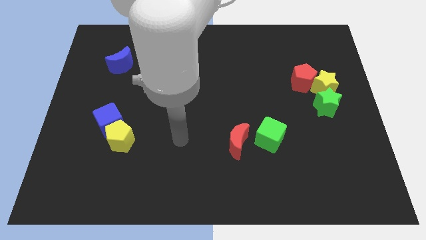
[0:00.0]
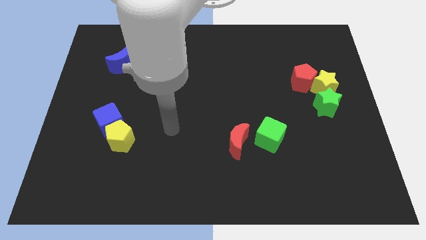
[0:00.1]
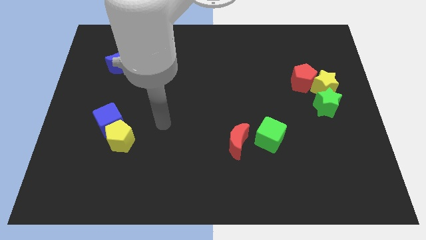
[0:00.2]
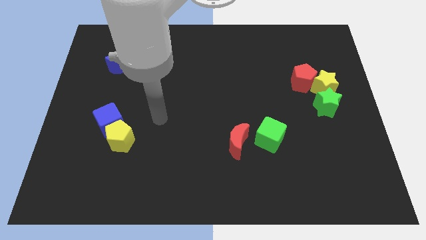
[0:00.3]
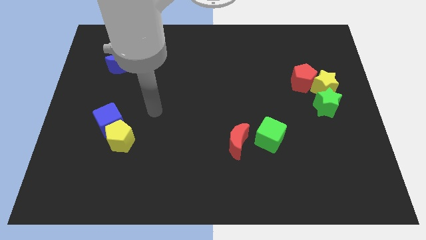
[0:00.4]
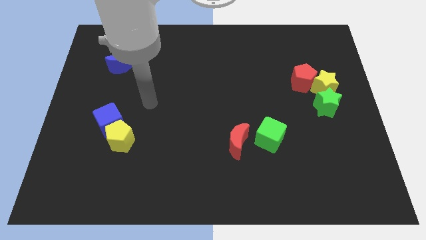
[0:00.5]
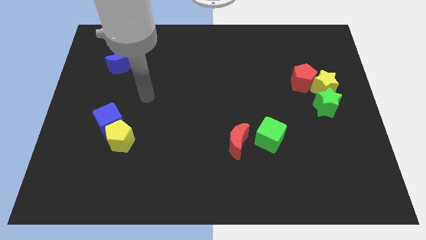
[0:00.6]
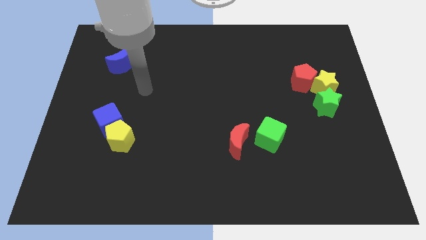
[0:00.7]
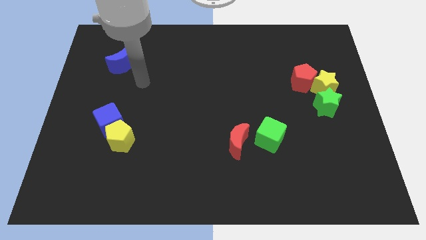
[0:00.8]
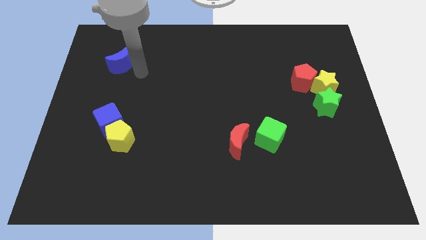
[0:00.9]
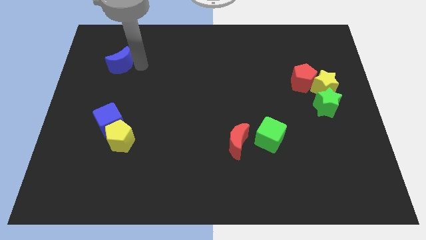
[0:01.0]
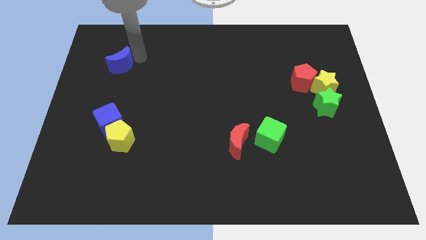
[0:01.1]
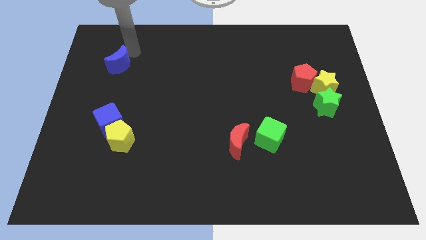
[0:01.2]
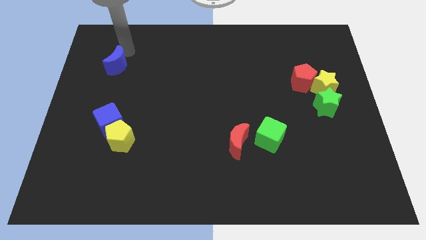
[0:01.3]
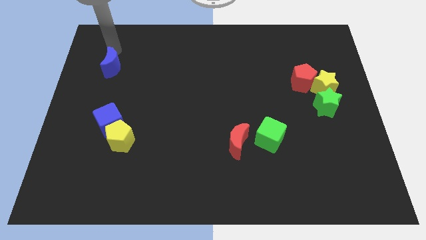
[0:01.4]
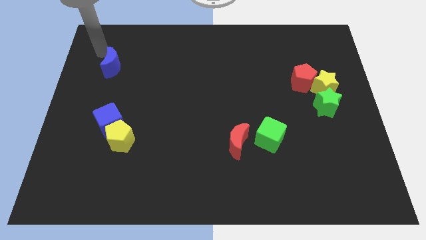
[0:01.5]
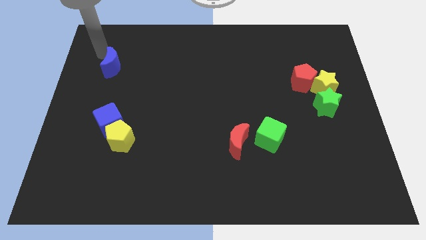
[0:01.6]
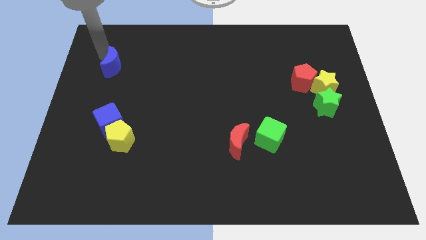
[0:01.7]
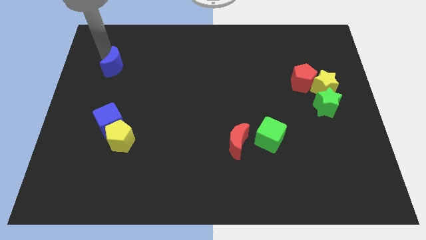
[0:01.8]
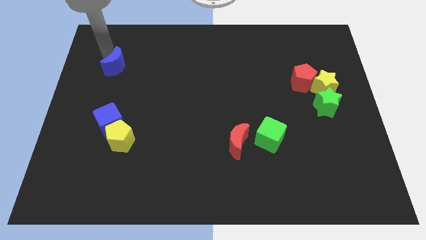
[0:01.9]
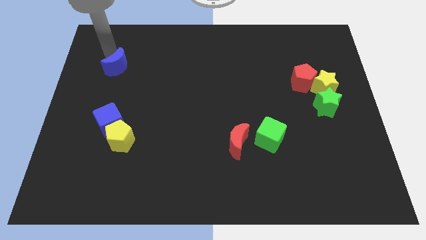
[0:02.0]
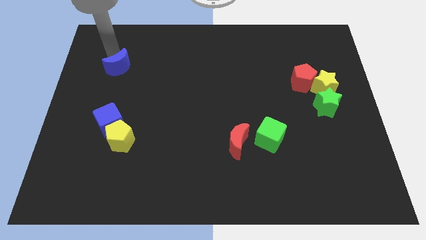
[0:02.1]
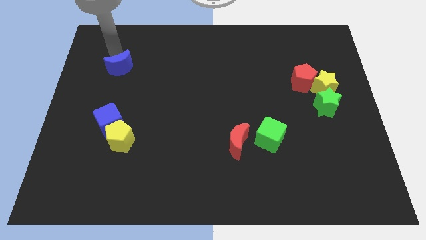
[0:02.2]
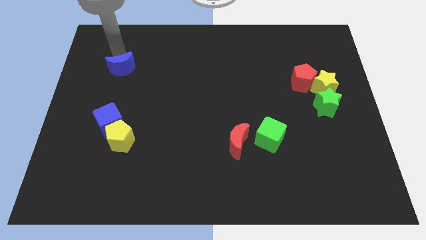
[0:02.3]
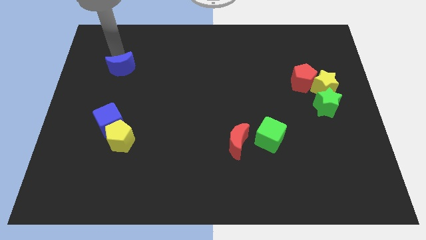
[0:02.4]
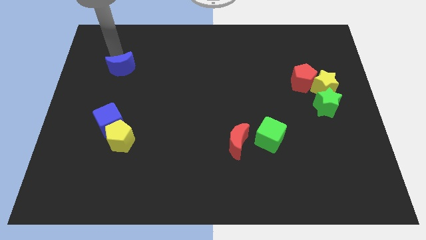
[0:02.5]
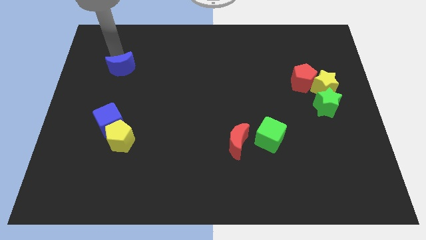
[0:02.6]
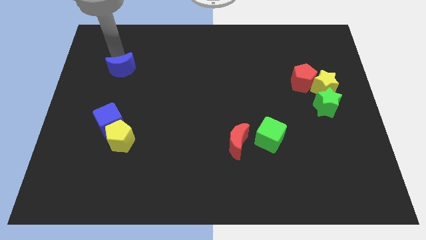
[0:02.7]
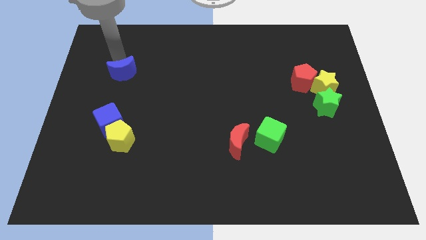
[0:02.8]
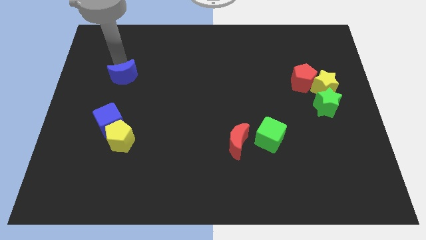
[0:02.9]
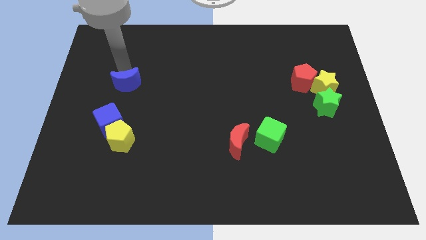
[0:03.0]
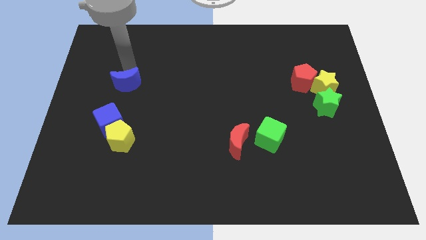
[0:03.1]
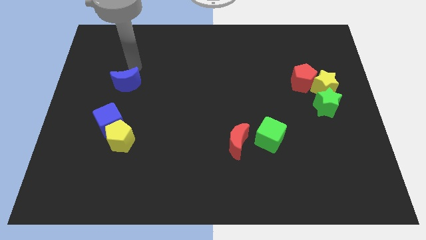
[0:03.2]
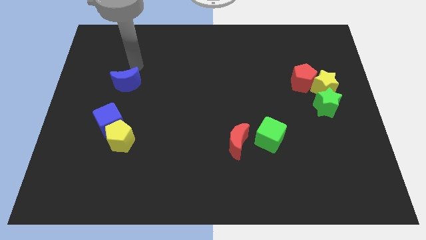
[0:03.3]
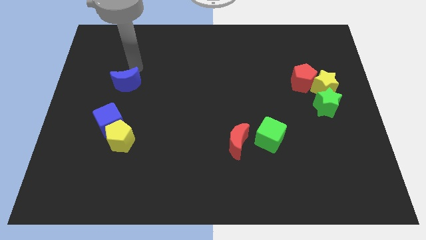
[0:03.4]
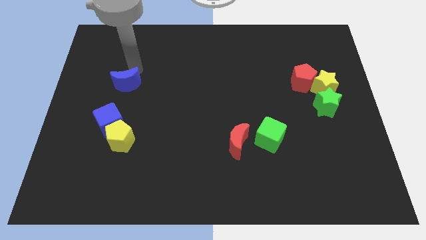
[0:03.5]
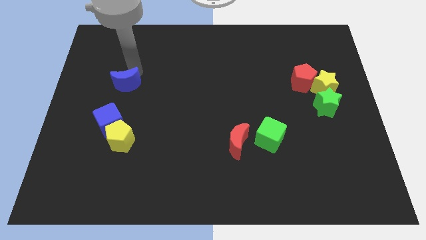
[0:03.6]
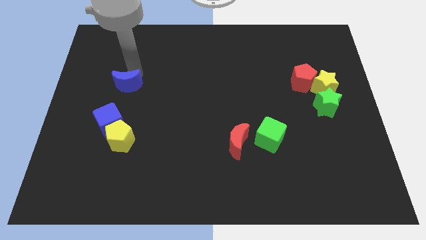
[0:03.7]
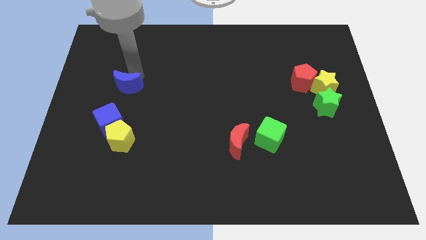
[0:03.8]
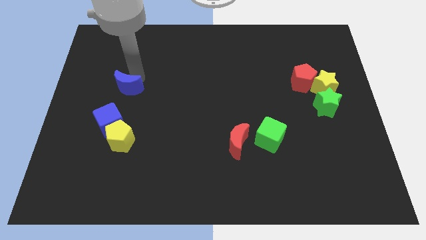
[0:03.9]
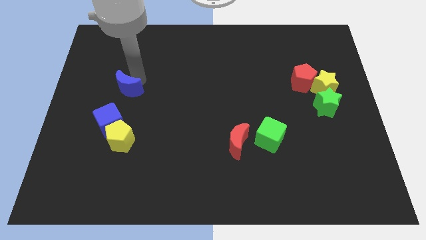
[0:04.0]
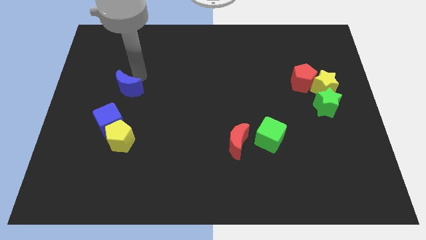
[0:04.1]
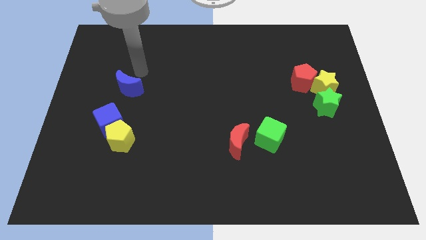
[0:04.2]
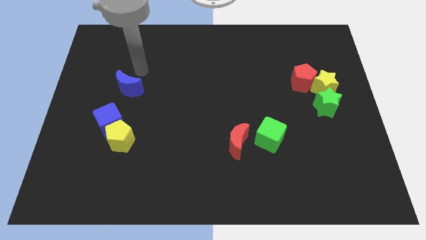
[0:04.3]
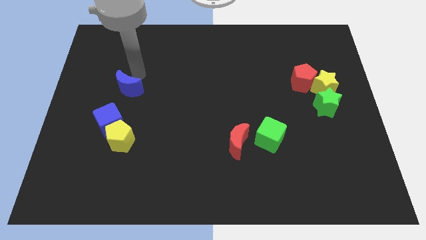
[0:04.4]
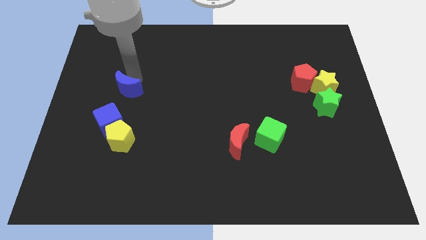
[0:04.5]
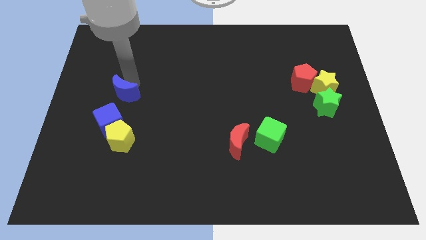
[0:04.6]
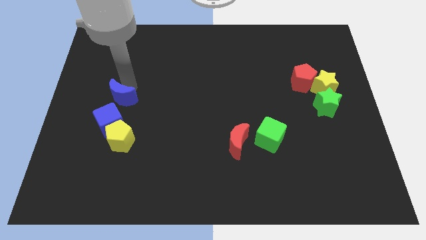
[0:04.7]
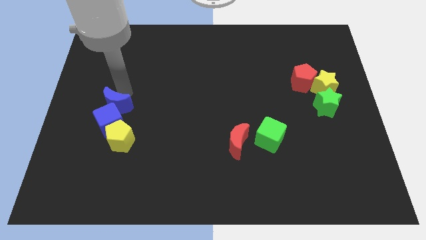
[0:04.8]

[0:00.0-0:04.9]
move the blue moon towards the blue cube

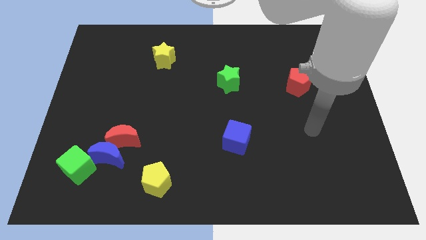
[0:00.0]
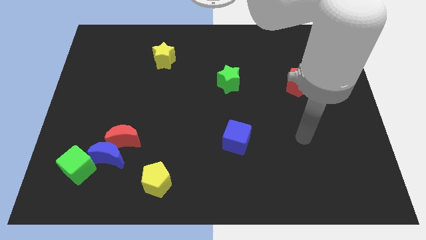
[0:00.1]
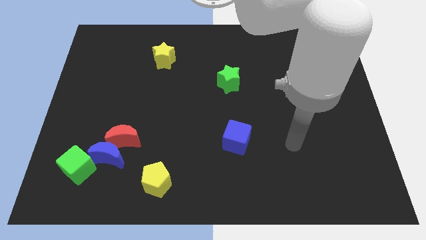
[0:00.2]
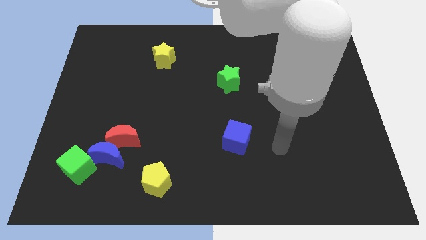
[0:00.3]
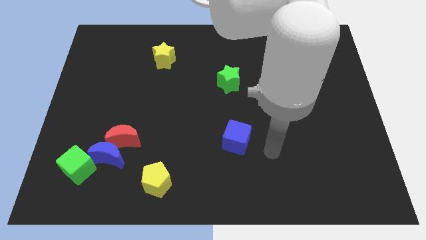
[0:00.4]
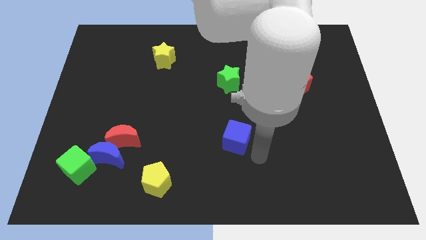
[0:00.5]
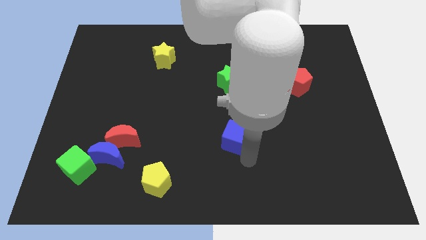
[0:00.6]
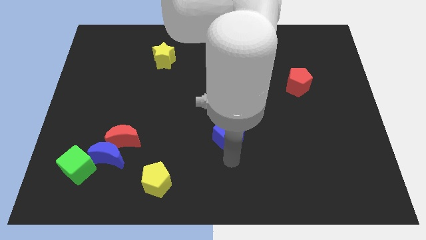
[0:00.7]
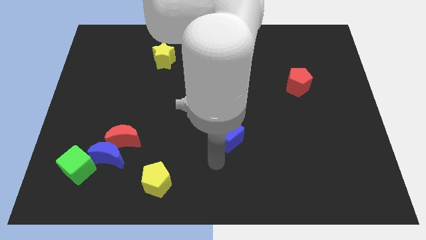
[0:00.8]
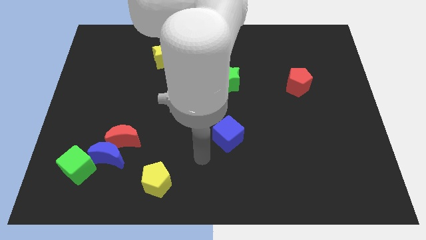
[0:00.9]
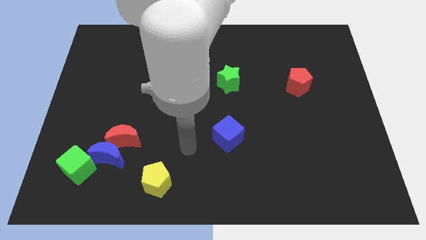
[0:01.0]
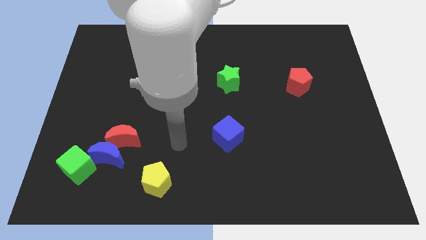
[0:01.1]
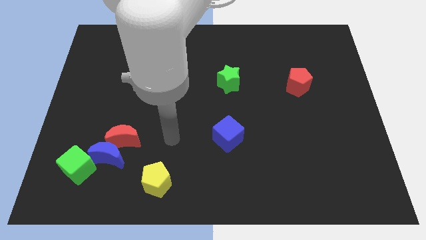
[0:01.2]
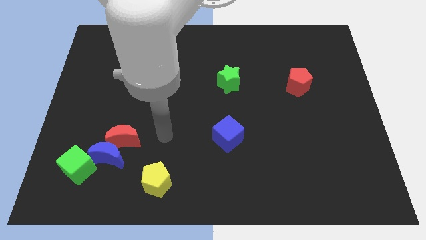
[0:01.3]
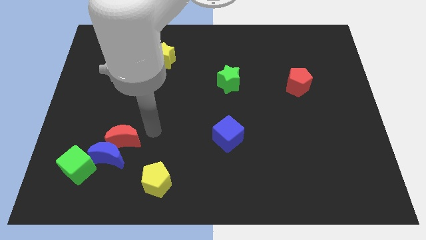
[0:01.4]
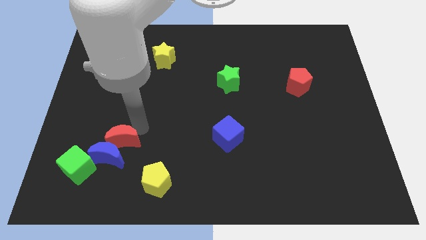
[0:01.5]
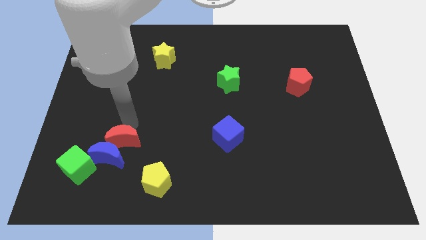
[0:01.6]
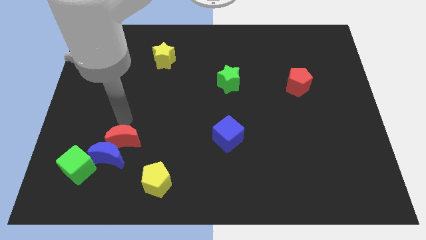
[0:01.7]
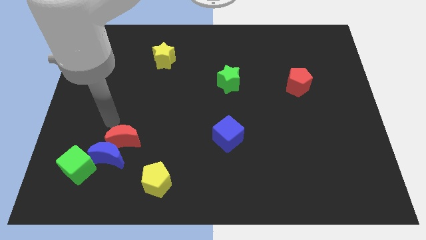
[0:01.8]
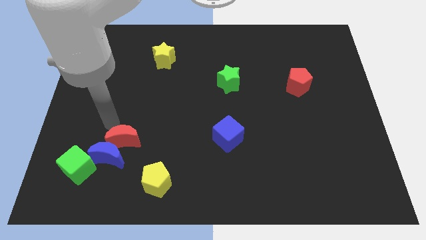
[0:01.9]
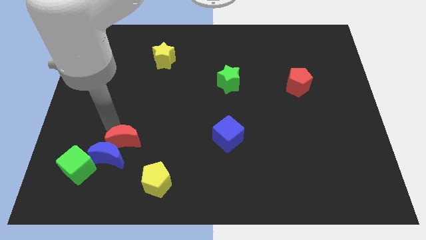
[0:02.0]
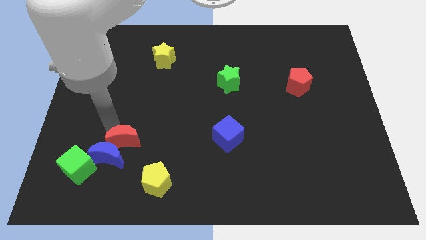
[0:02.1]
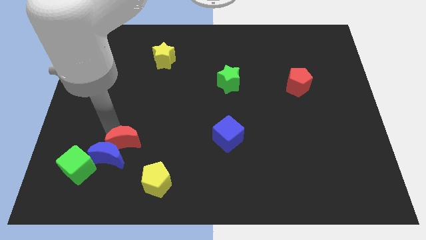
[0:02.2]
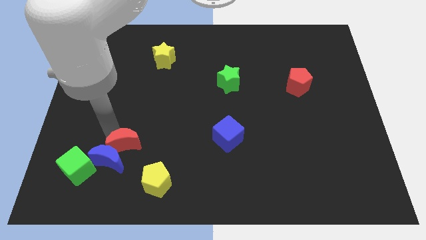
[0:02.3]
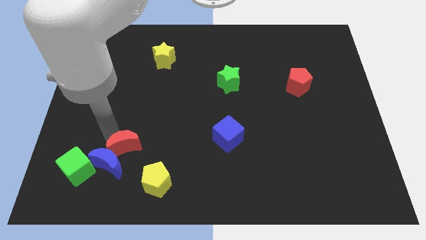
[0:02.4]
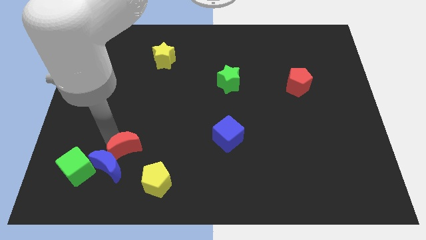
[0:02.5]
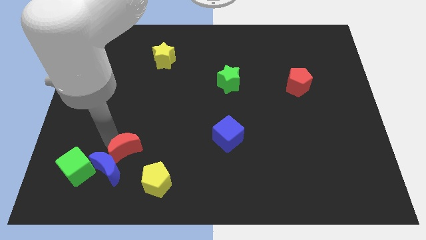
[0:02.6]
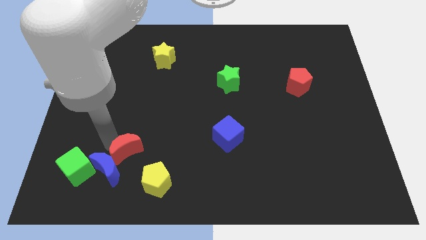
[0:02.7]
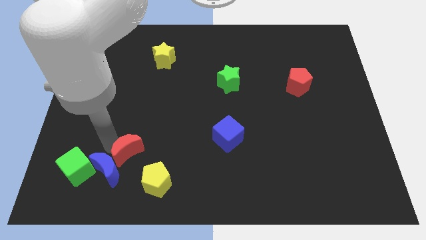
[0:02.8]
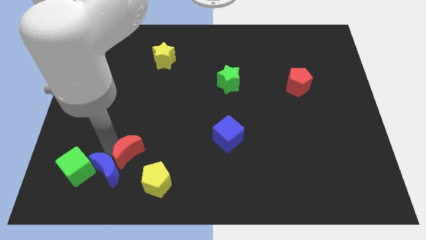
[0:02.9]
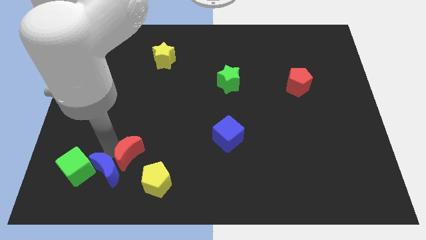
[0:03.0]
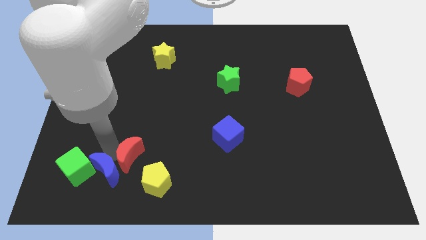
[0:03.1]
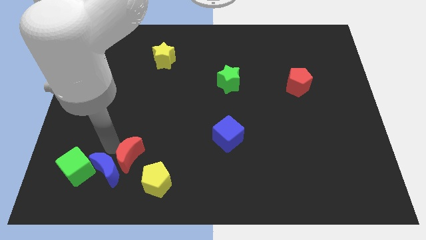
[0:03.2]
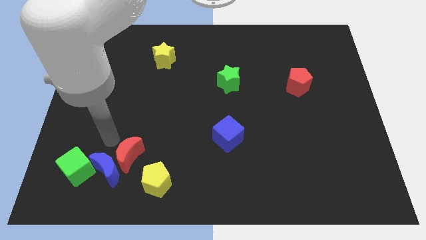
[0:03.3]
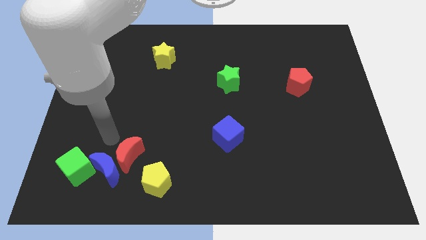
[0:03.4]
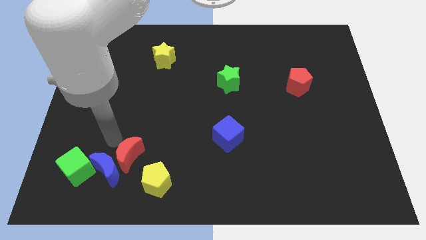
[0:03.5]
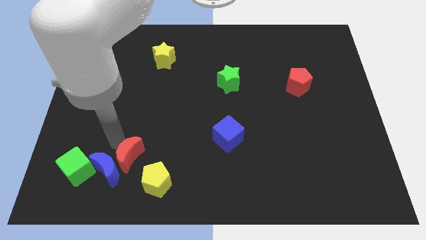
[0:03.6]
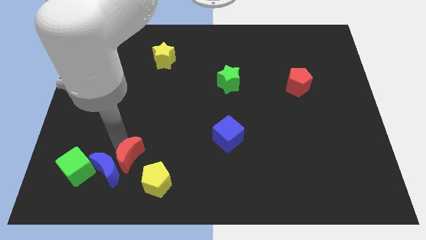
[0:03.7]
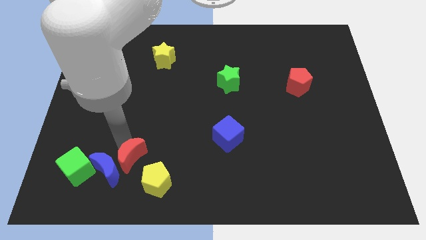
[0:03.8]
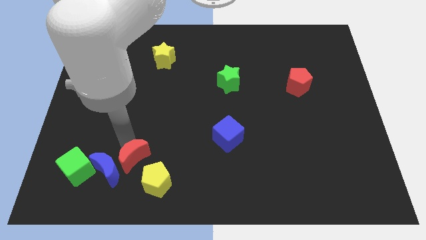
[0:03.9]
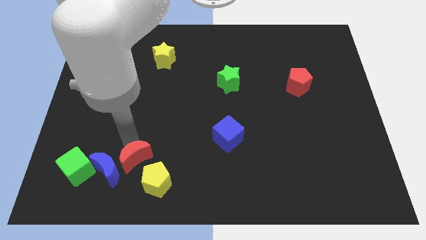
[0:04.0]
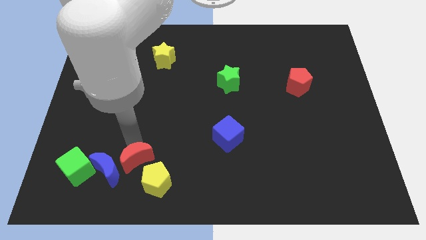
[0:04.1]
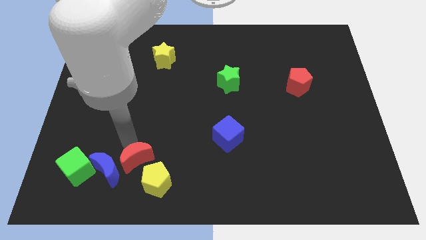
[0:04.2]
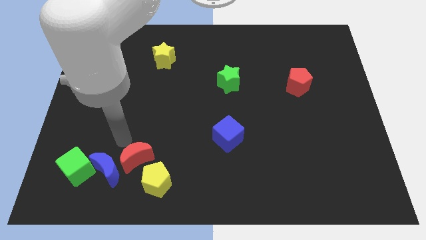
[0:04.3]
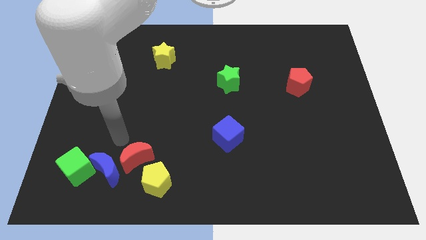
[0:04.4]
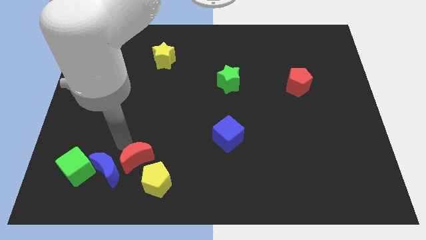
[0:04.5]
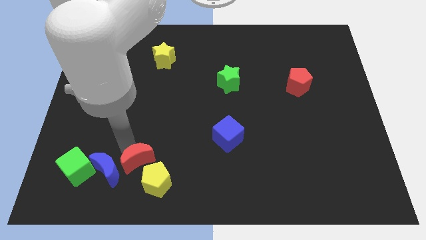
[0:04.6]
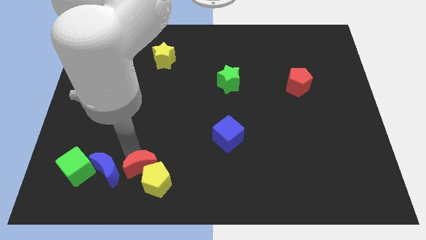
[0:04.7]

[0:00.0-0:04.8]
push the red moon to the yellow pentagon
